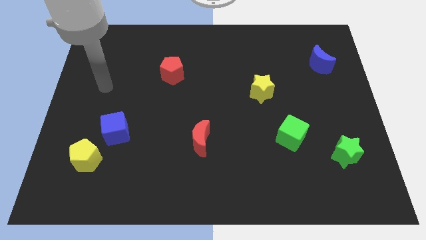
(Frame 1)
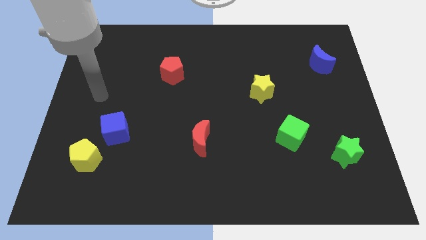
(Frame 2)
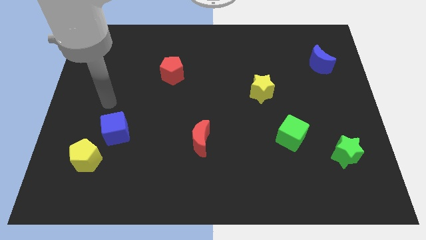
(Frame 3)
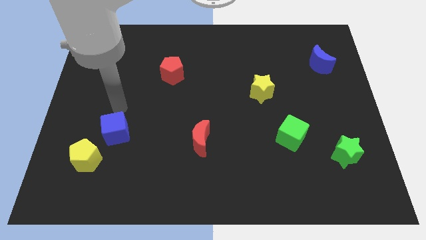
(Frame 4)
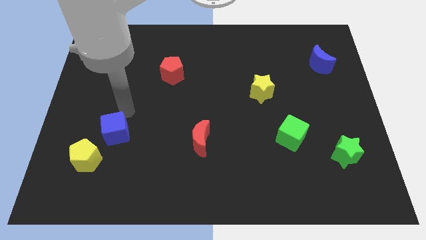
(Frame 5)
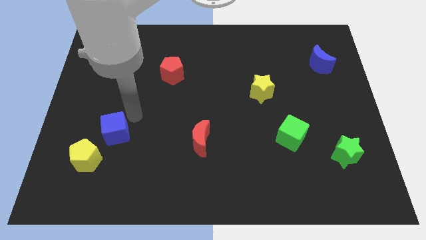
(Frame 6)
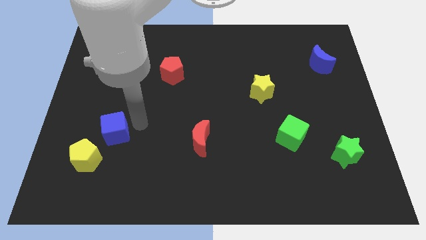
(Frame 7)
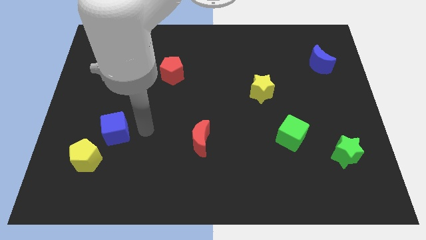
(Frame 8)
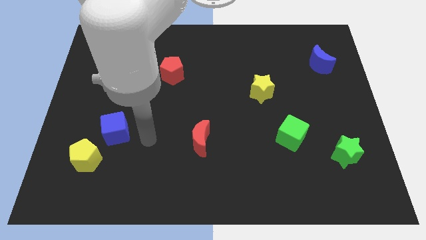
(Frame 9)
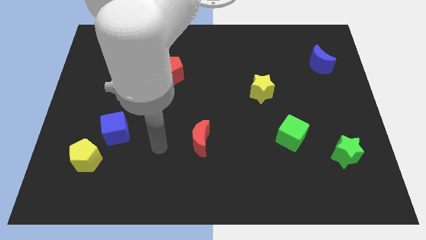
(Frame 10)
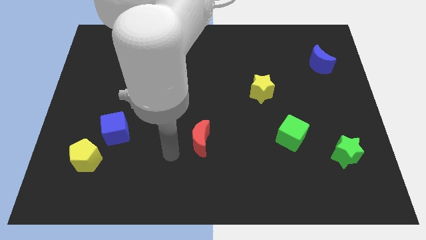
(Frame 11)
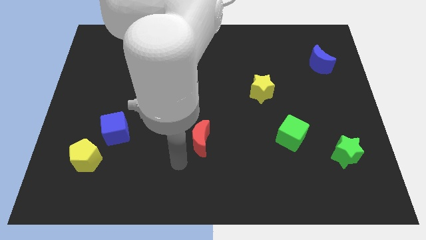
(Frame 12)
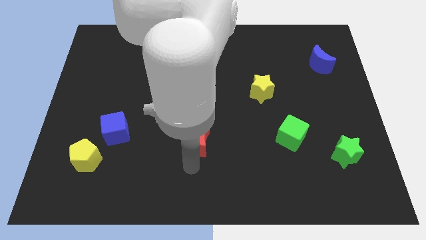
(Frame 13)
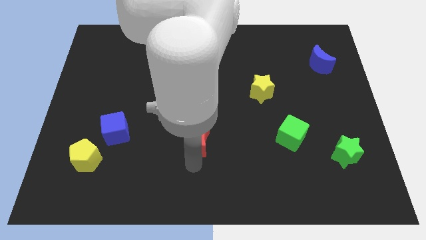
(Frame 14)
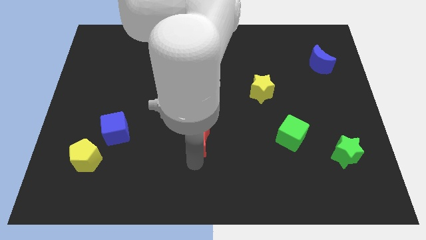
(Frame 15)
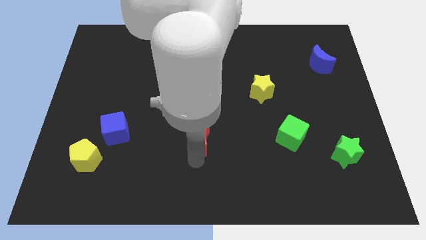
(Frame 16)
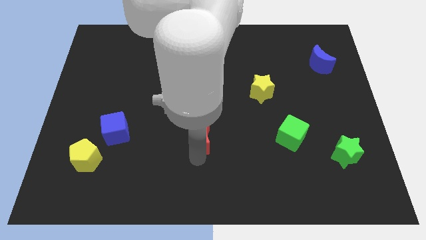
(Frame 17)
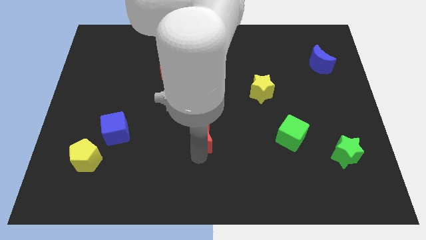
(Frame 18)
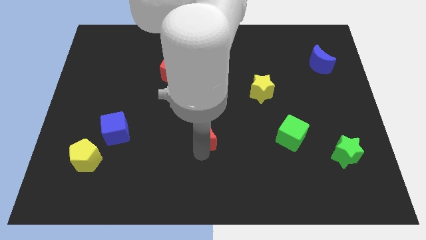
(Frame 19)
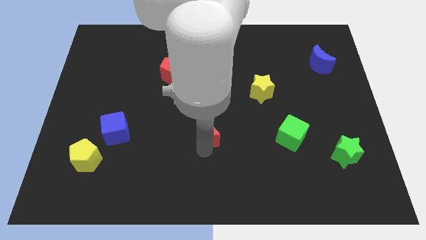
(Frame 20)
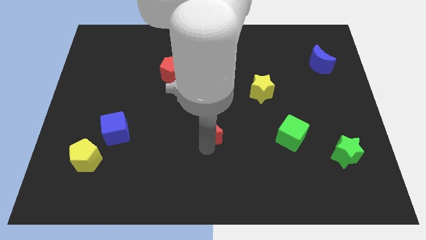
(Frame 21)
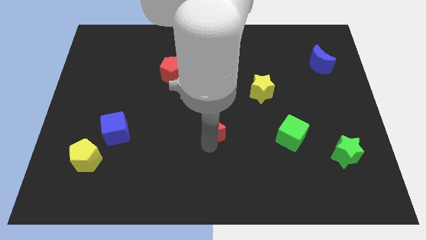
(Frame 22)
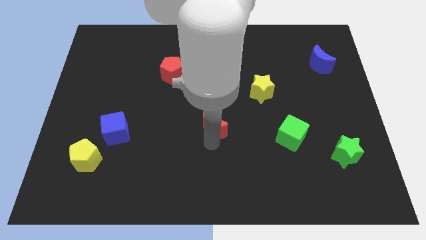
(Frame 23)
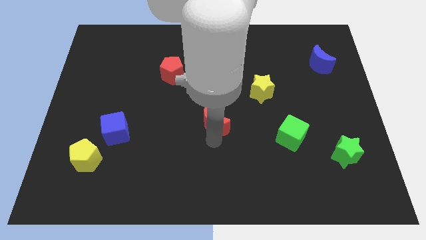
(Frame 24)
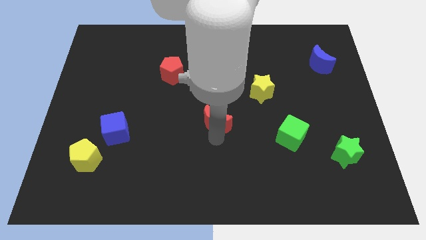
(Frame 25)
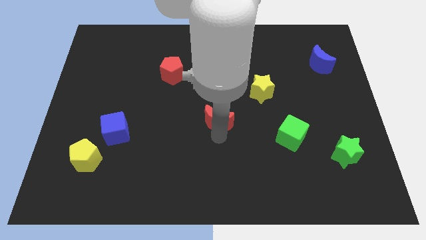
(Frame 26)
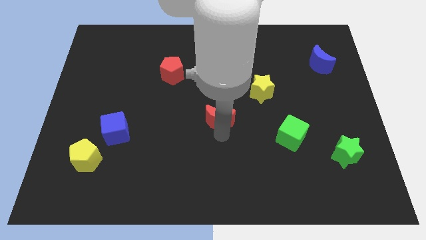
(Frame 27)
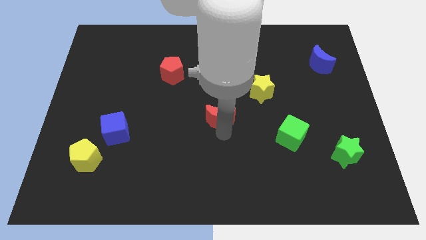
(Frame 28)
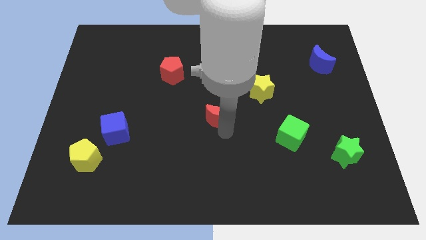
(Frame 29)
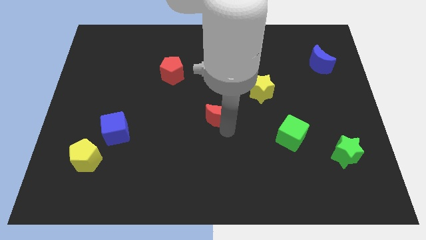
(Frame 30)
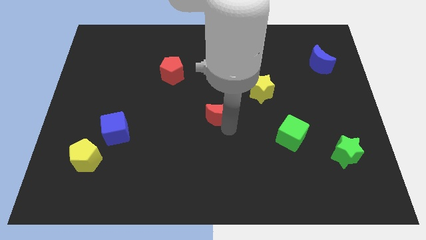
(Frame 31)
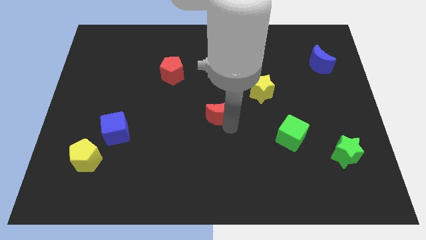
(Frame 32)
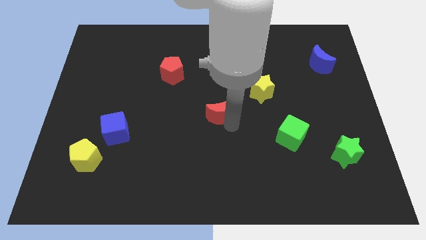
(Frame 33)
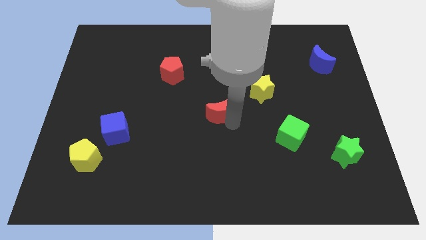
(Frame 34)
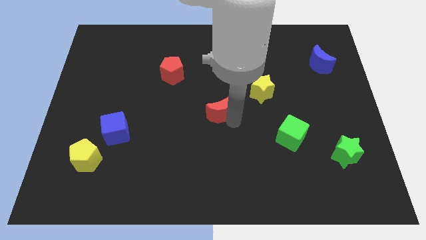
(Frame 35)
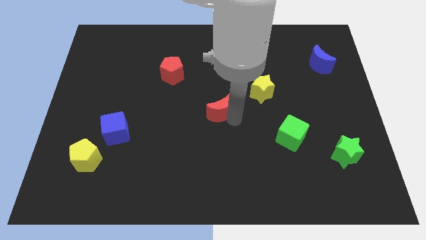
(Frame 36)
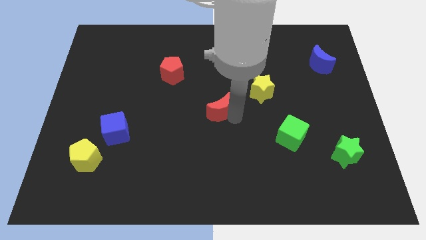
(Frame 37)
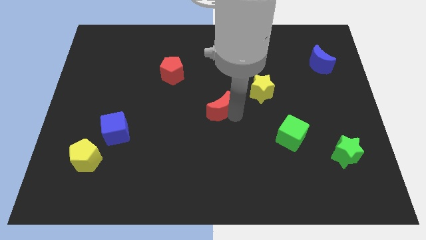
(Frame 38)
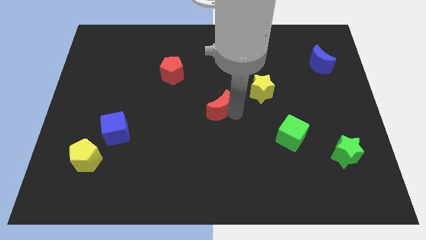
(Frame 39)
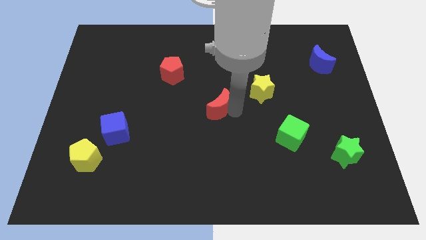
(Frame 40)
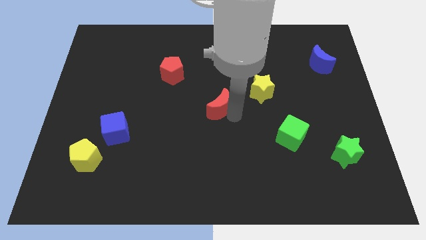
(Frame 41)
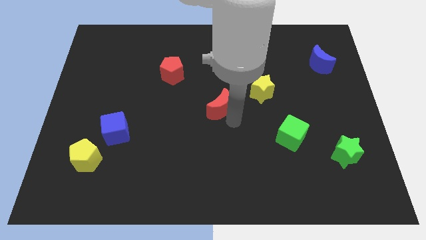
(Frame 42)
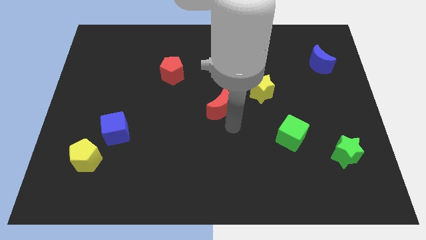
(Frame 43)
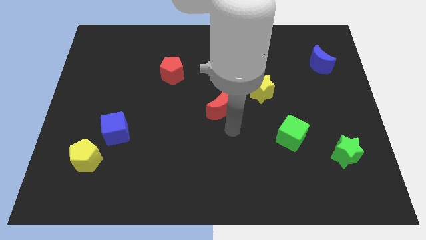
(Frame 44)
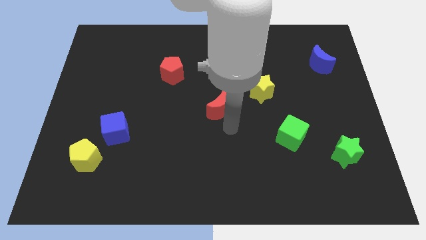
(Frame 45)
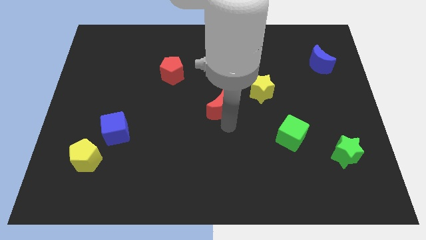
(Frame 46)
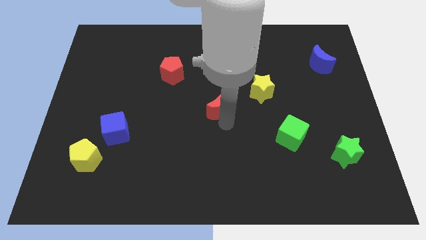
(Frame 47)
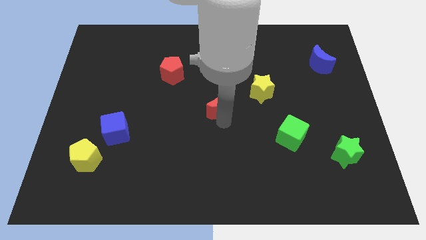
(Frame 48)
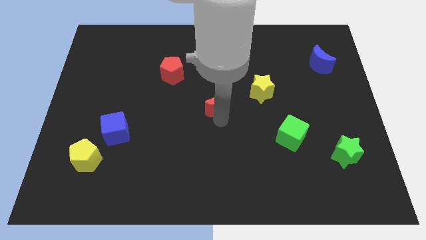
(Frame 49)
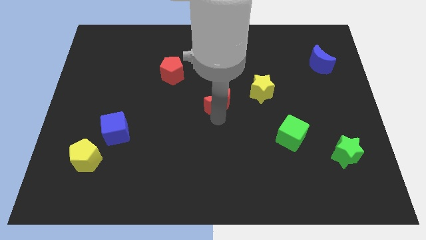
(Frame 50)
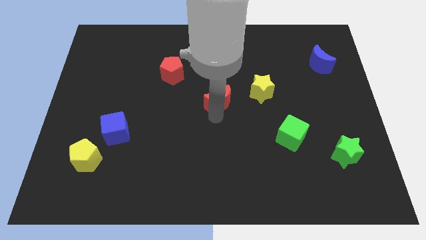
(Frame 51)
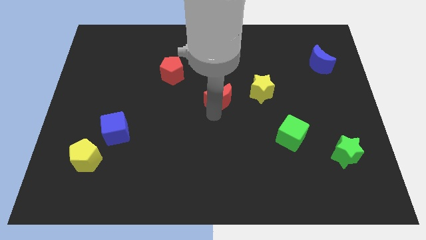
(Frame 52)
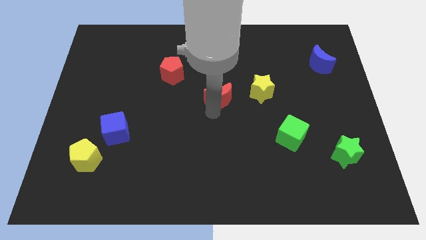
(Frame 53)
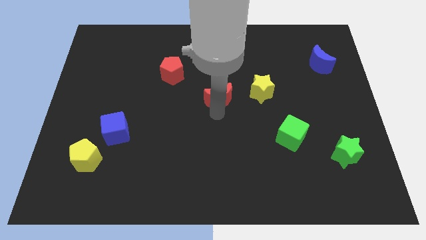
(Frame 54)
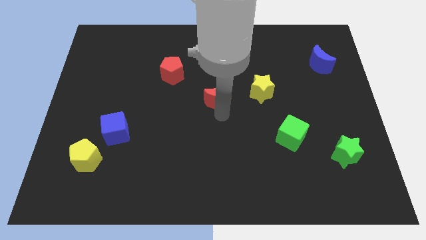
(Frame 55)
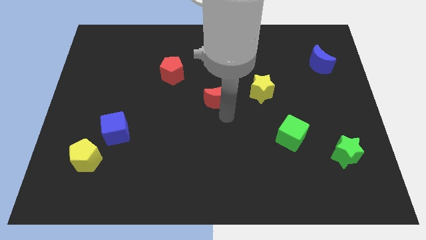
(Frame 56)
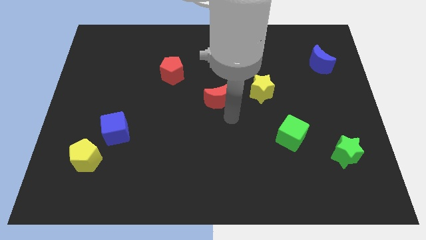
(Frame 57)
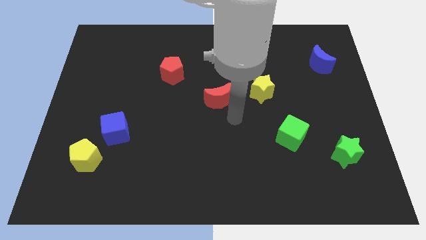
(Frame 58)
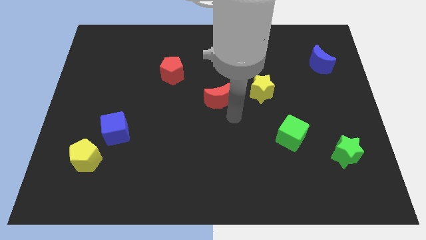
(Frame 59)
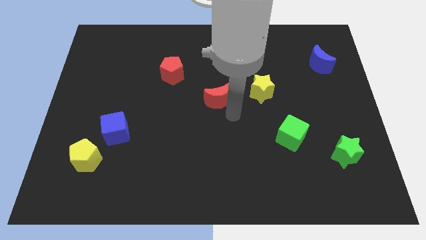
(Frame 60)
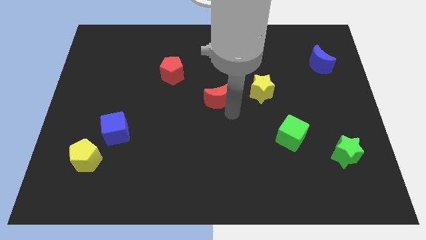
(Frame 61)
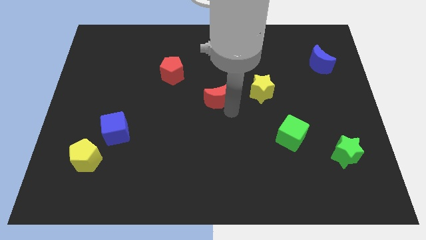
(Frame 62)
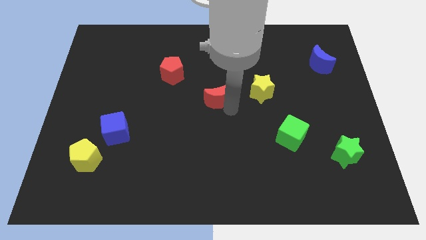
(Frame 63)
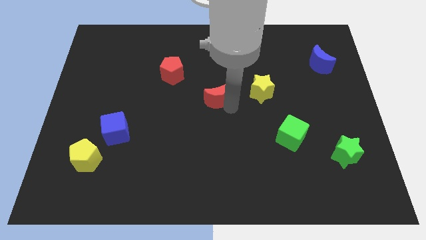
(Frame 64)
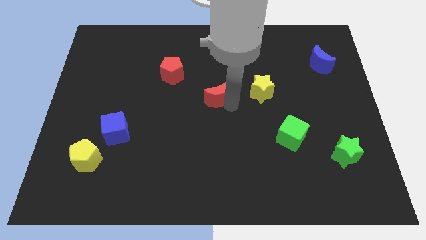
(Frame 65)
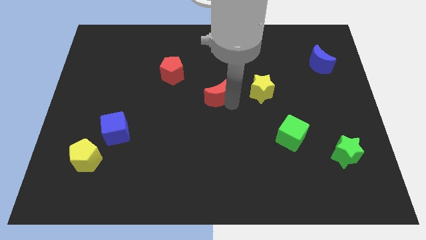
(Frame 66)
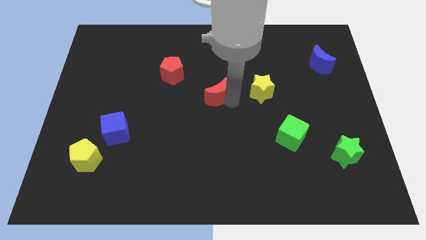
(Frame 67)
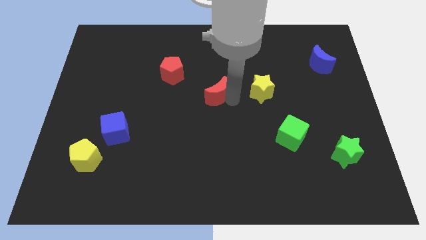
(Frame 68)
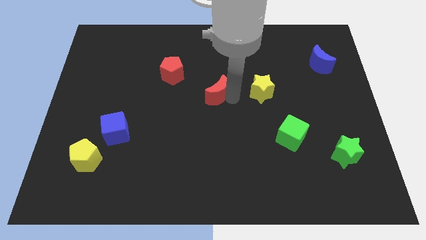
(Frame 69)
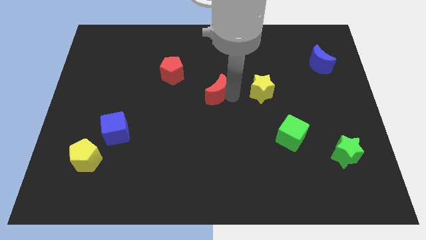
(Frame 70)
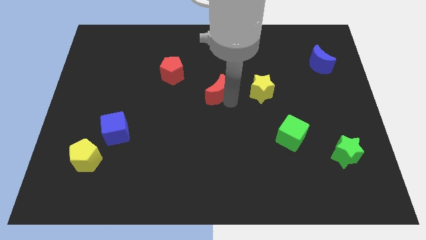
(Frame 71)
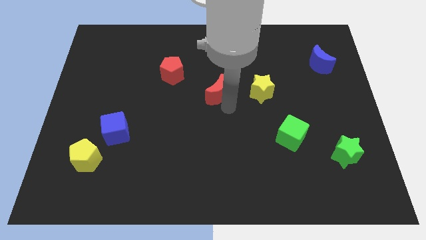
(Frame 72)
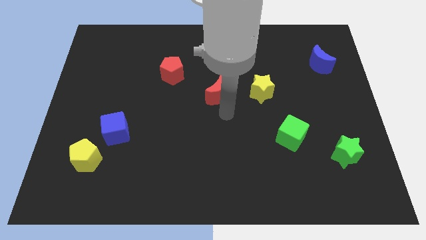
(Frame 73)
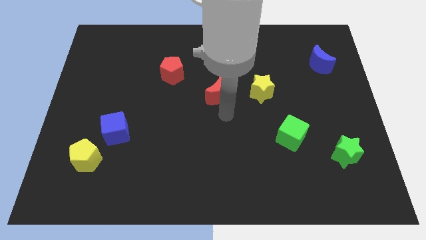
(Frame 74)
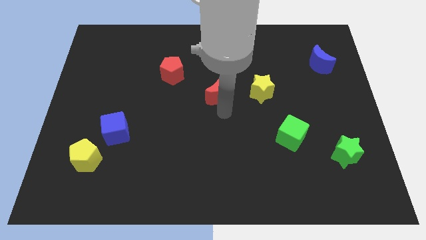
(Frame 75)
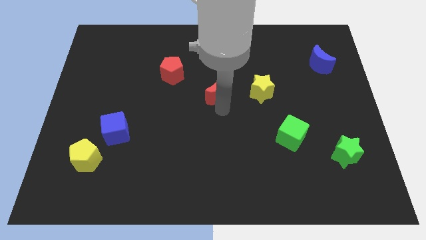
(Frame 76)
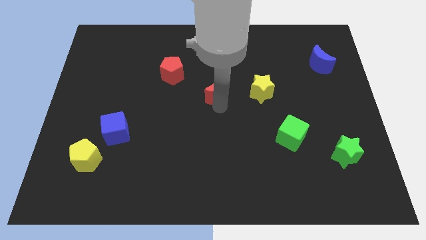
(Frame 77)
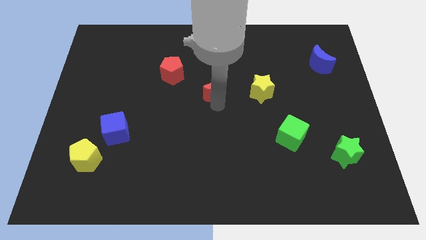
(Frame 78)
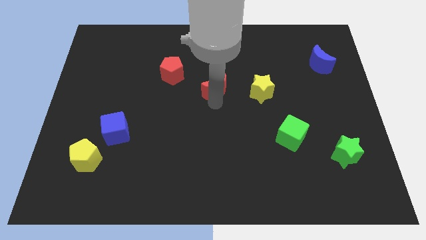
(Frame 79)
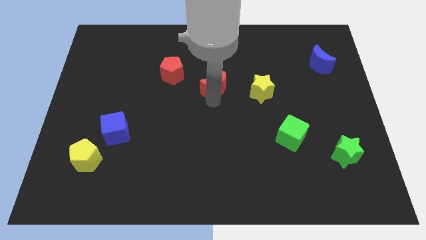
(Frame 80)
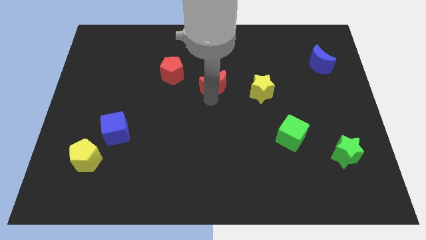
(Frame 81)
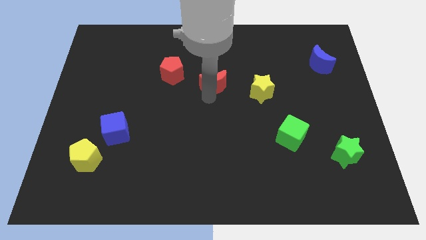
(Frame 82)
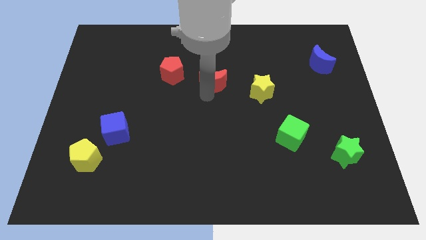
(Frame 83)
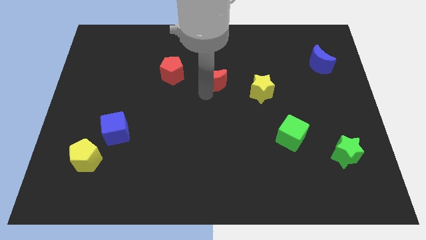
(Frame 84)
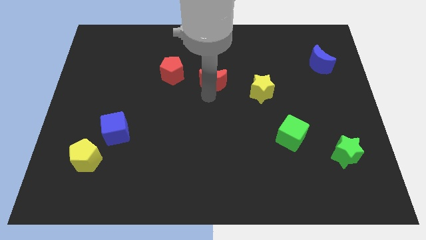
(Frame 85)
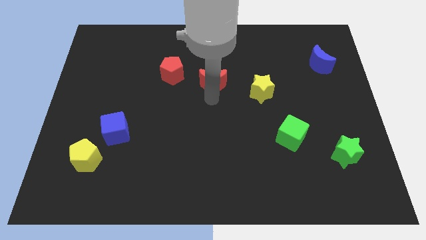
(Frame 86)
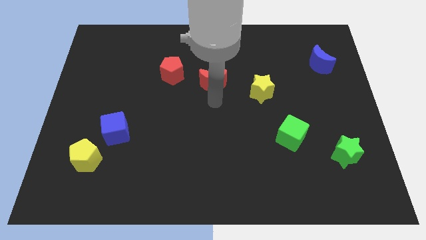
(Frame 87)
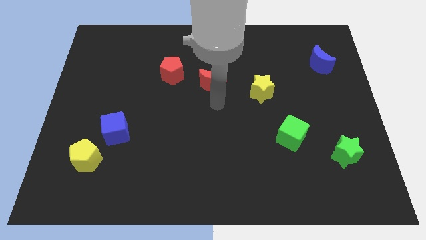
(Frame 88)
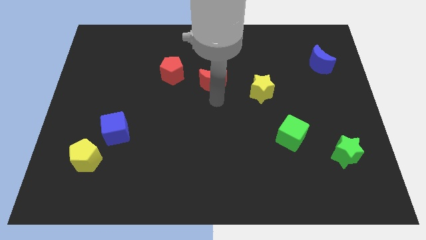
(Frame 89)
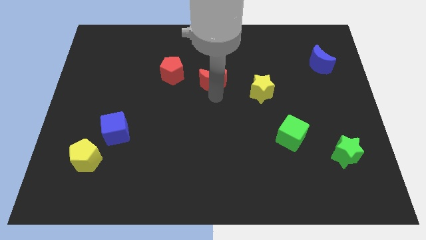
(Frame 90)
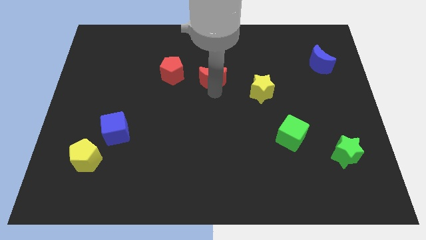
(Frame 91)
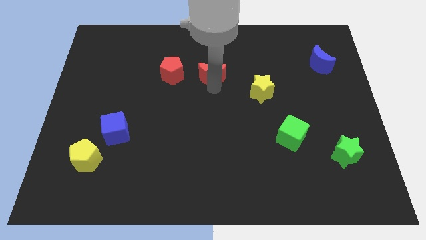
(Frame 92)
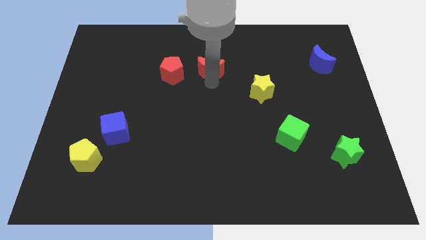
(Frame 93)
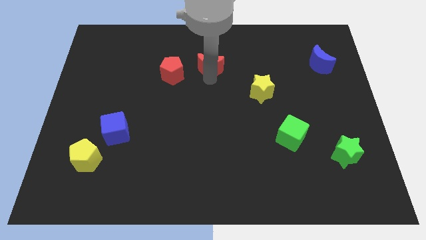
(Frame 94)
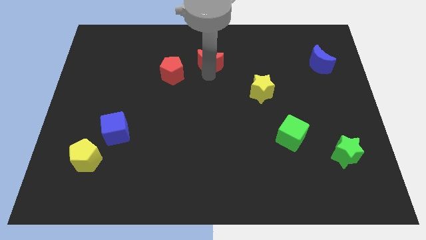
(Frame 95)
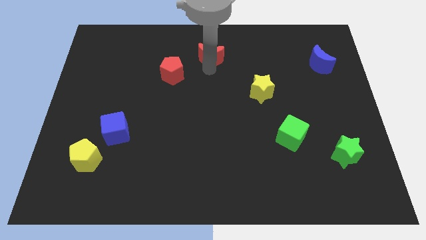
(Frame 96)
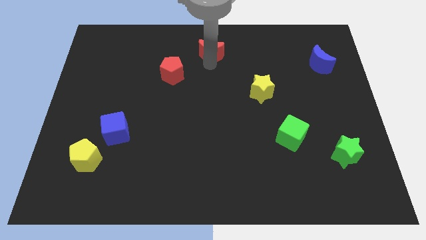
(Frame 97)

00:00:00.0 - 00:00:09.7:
put the red moon to the top side
